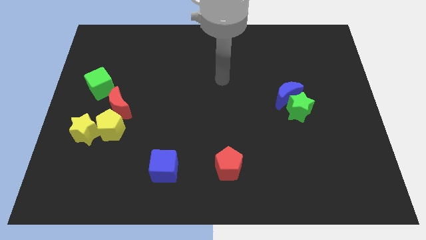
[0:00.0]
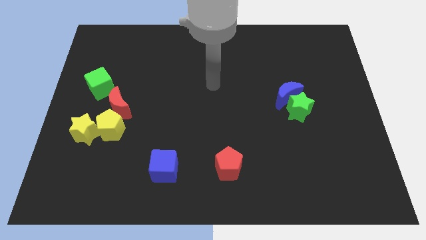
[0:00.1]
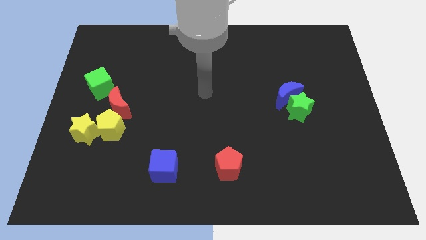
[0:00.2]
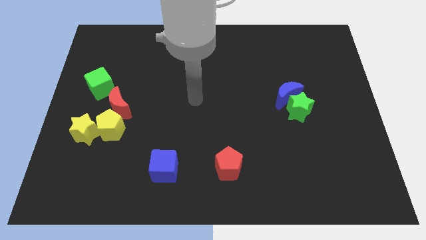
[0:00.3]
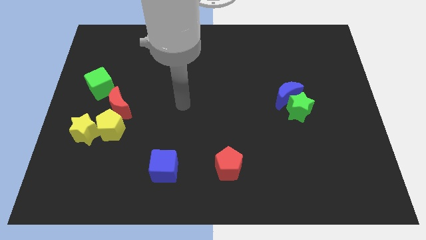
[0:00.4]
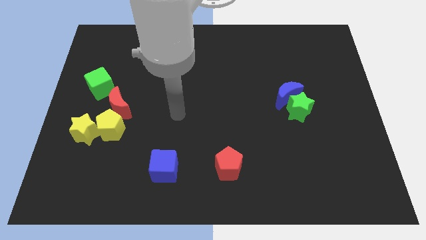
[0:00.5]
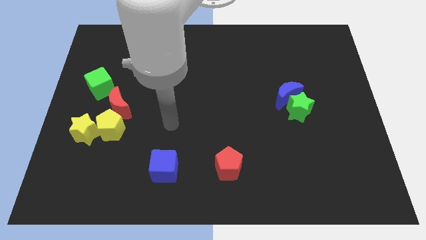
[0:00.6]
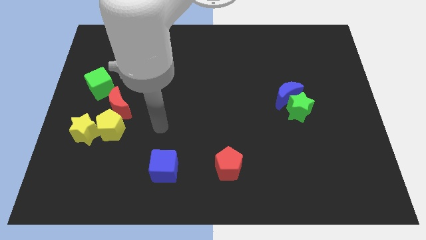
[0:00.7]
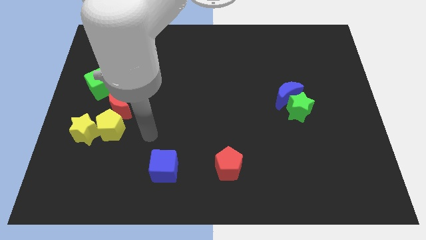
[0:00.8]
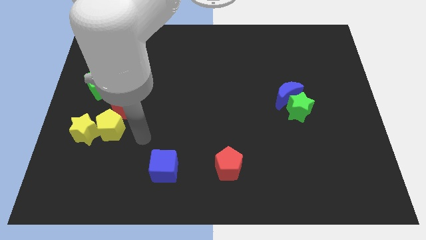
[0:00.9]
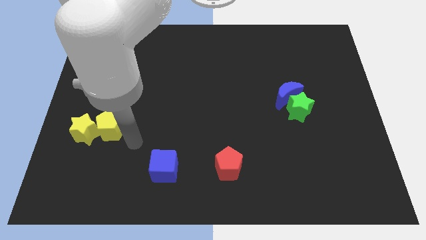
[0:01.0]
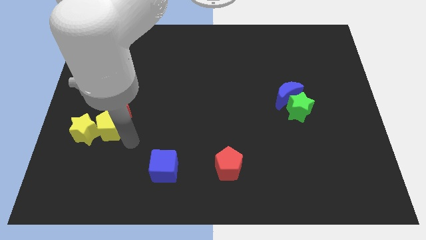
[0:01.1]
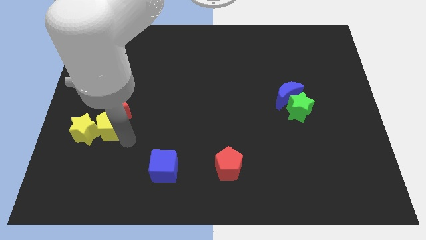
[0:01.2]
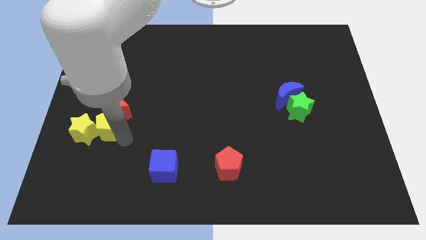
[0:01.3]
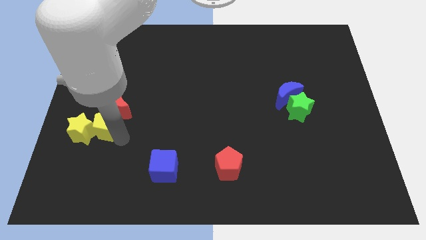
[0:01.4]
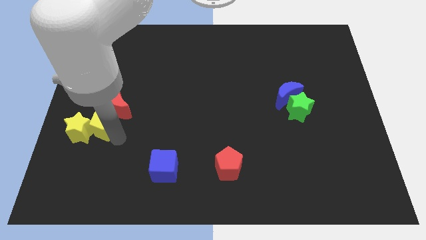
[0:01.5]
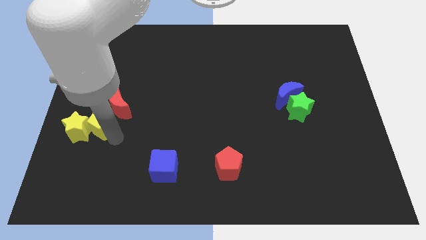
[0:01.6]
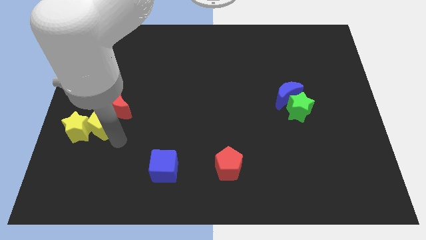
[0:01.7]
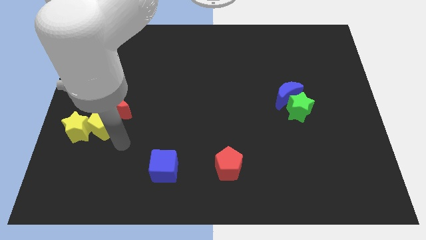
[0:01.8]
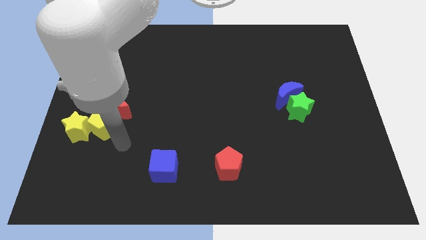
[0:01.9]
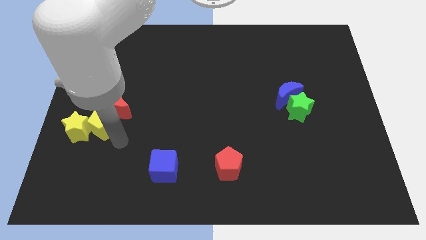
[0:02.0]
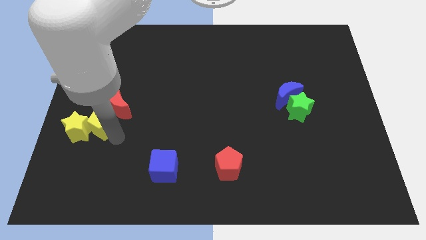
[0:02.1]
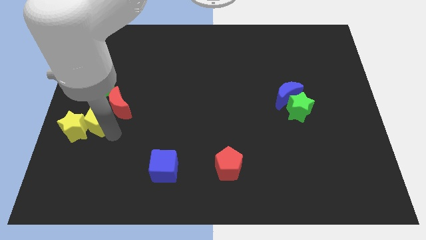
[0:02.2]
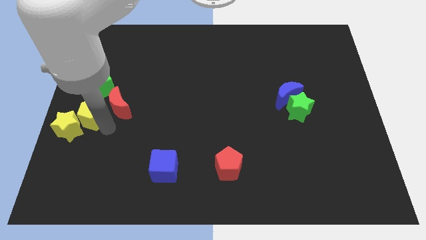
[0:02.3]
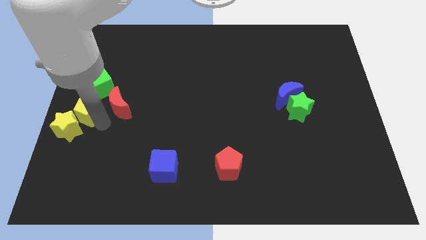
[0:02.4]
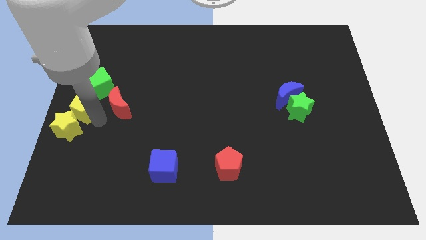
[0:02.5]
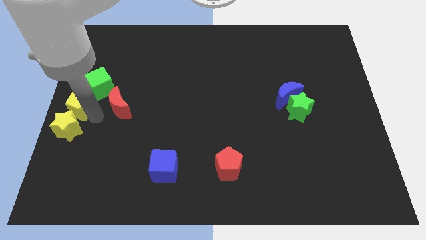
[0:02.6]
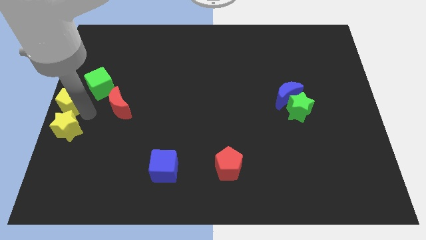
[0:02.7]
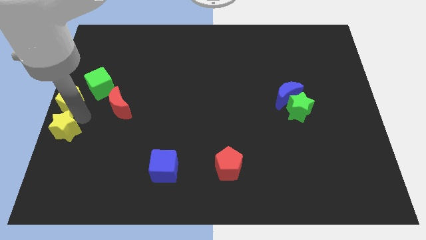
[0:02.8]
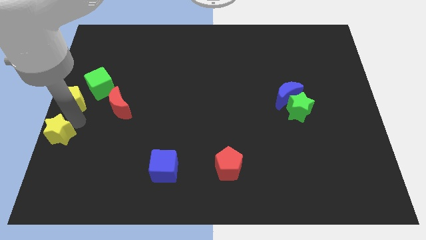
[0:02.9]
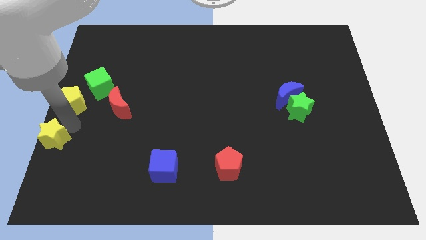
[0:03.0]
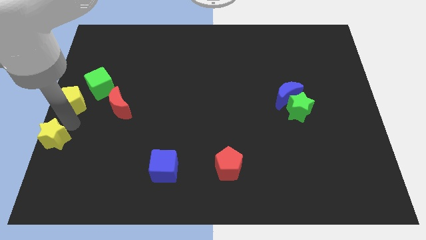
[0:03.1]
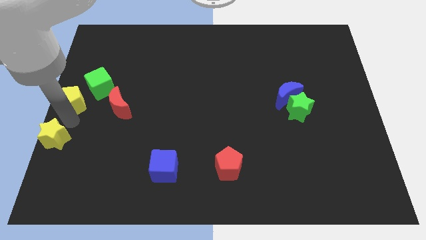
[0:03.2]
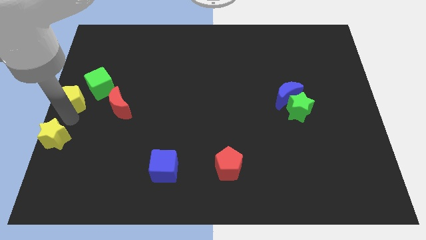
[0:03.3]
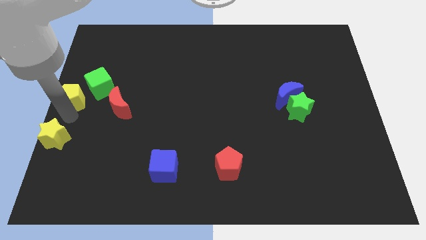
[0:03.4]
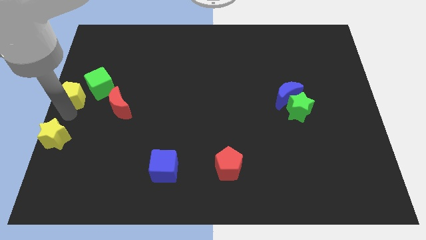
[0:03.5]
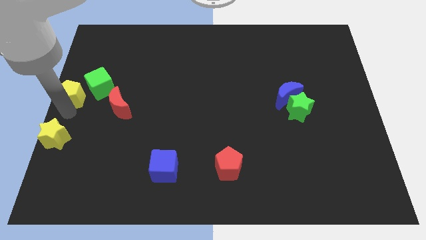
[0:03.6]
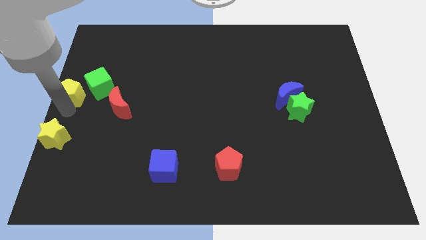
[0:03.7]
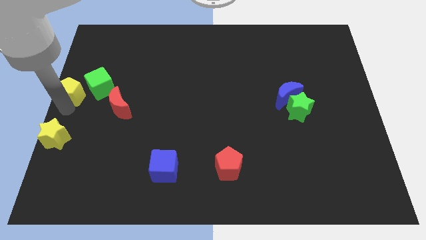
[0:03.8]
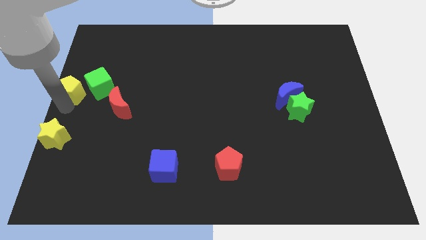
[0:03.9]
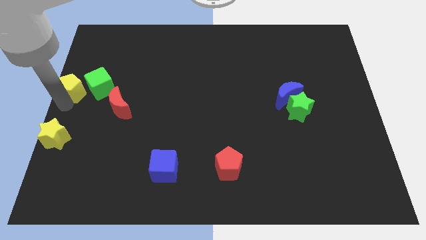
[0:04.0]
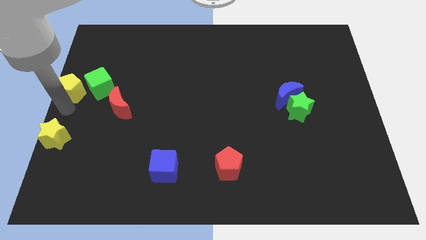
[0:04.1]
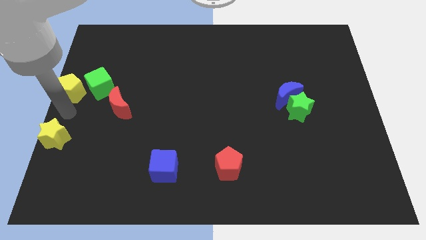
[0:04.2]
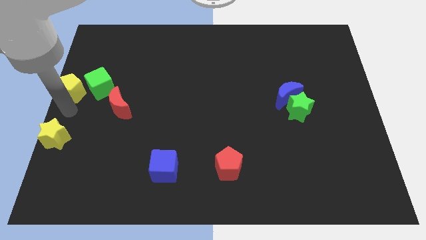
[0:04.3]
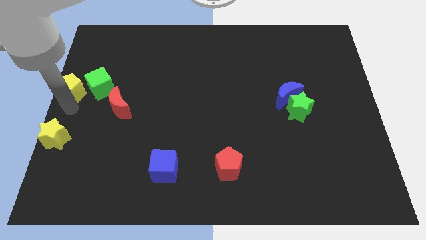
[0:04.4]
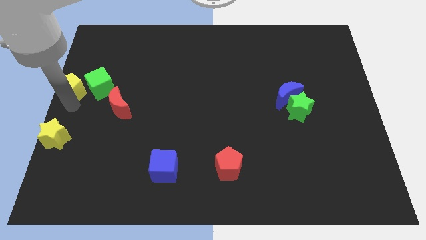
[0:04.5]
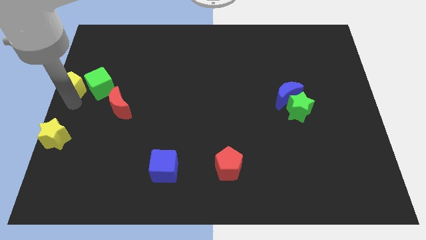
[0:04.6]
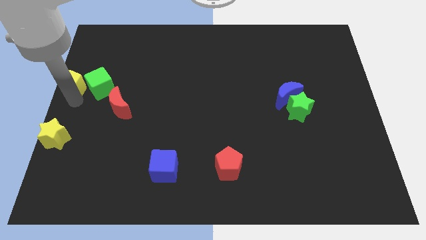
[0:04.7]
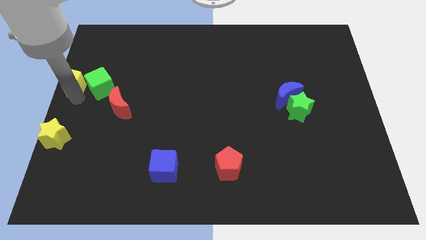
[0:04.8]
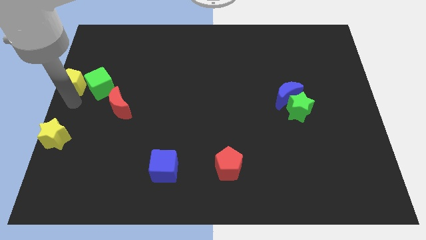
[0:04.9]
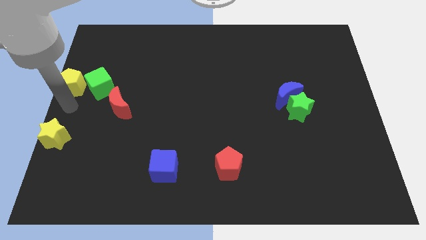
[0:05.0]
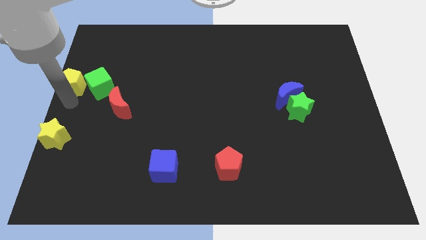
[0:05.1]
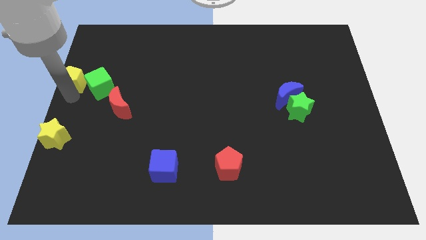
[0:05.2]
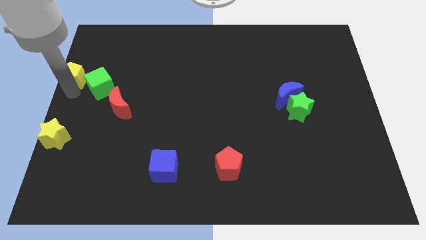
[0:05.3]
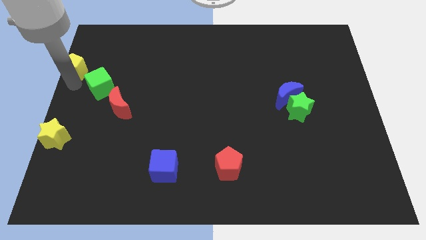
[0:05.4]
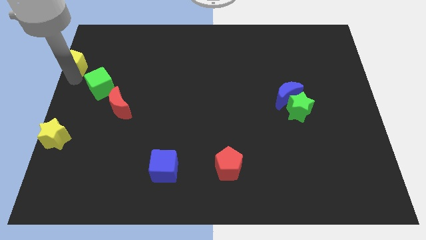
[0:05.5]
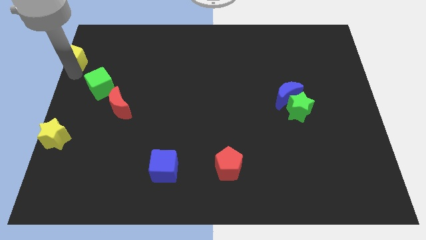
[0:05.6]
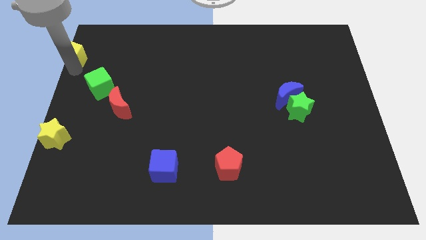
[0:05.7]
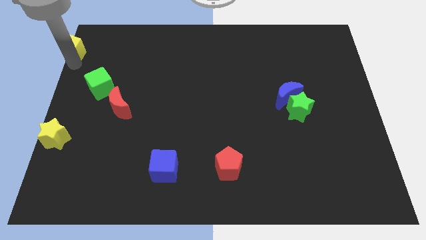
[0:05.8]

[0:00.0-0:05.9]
put the yellow pentagon to the top left
